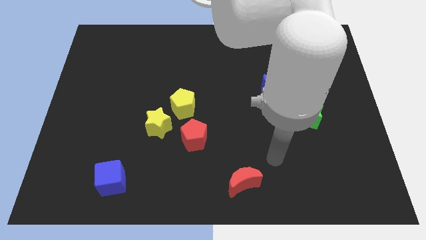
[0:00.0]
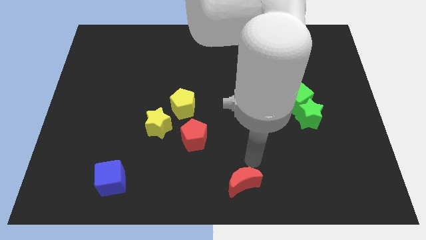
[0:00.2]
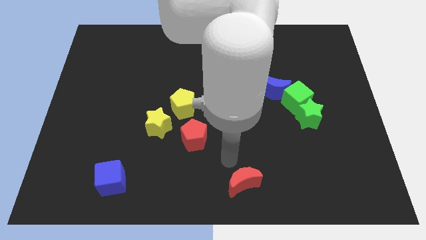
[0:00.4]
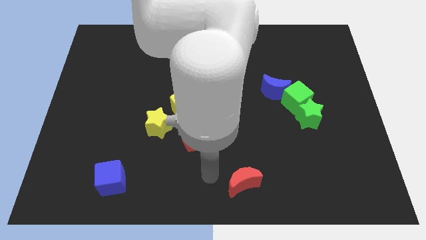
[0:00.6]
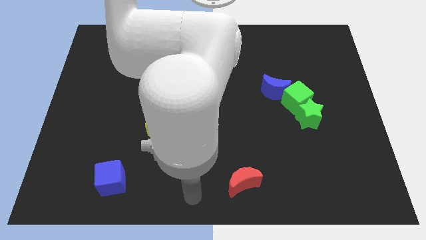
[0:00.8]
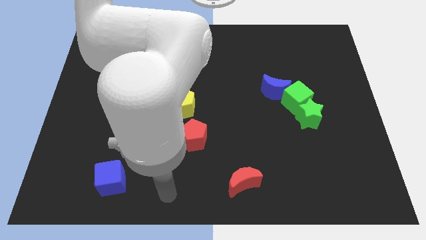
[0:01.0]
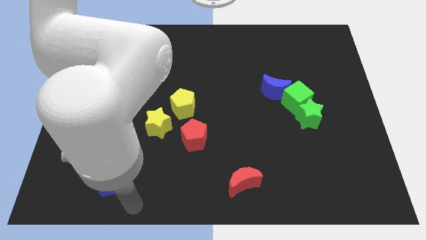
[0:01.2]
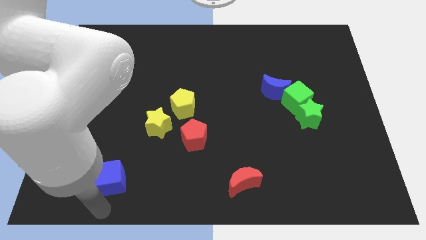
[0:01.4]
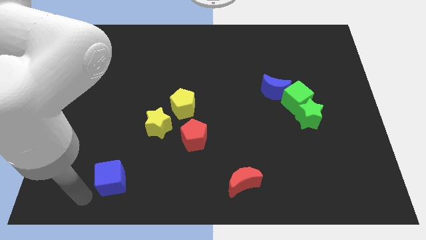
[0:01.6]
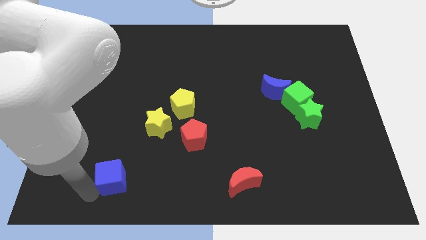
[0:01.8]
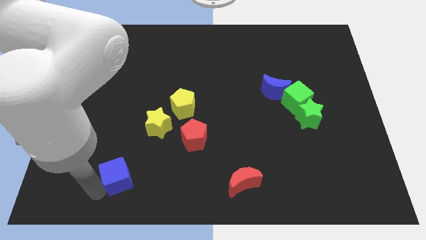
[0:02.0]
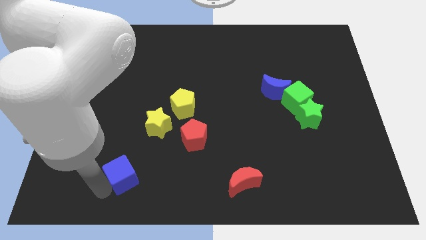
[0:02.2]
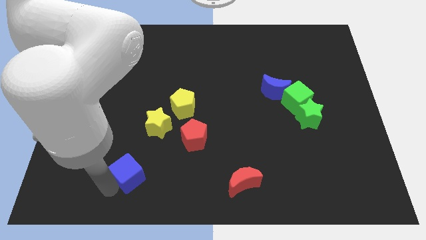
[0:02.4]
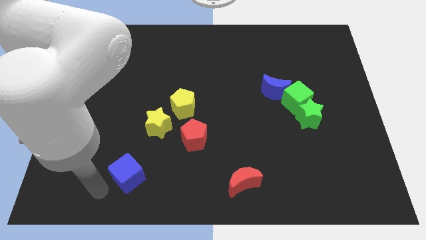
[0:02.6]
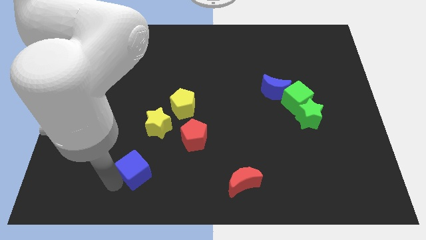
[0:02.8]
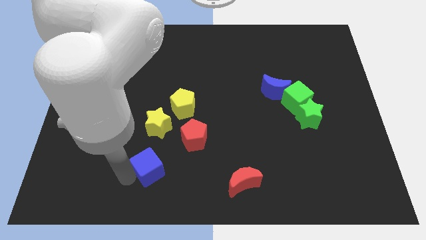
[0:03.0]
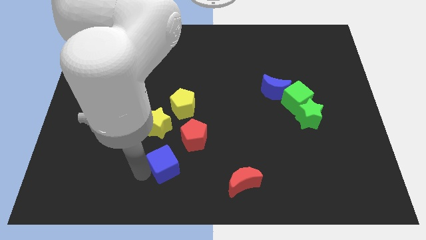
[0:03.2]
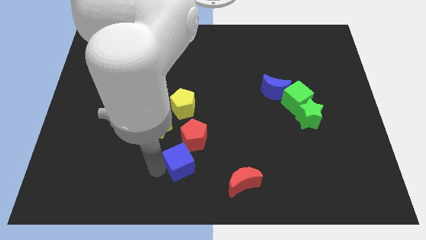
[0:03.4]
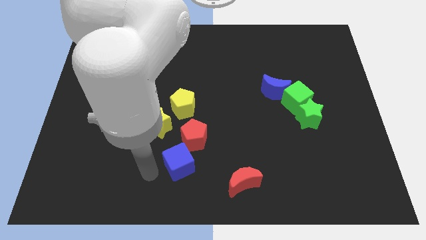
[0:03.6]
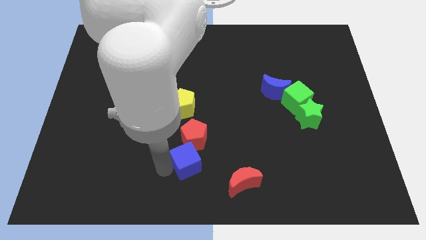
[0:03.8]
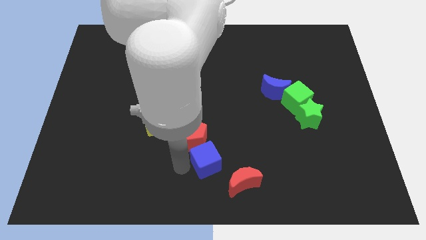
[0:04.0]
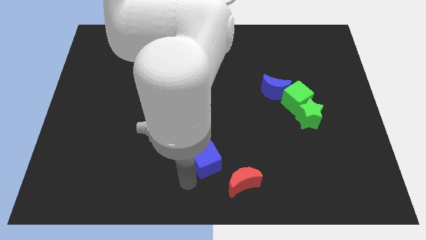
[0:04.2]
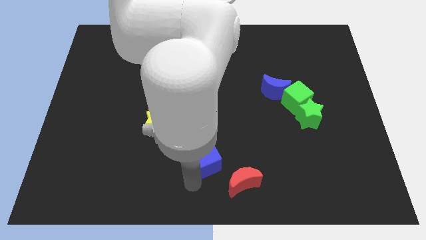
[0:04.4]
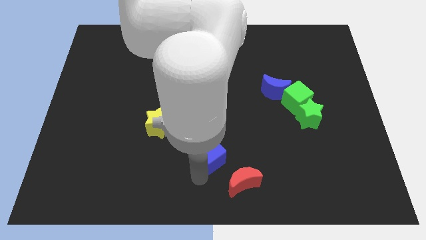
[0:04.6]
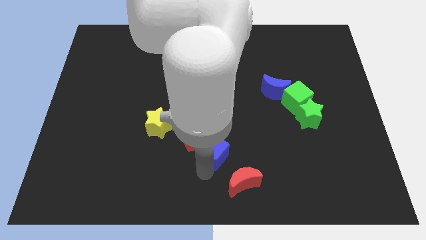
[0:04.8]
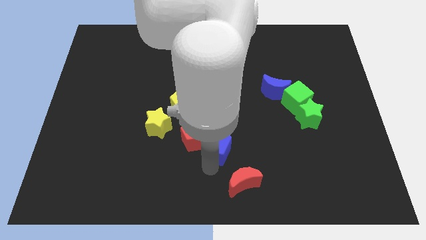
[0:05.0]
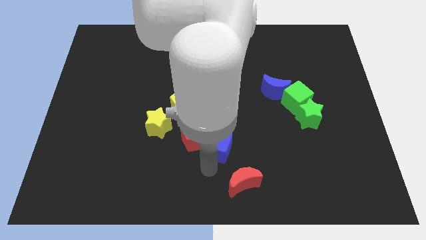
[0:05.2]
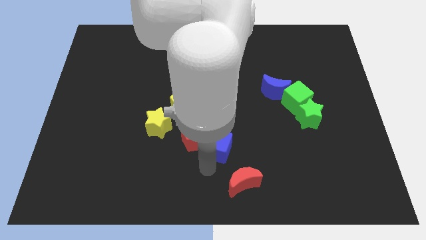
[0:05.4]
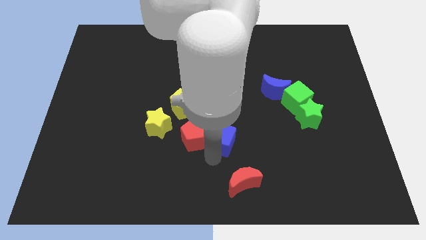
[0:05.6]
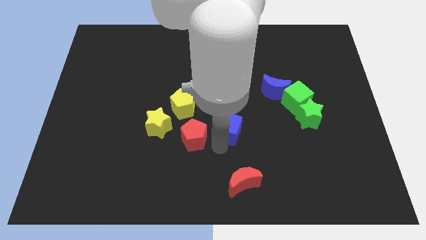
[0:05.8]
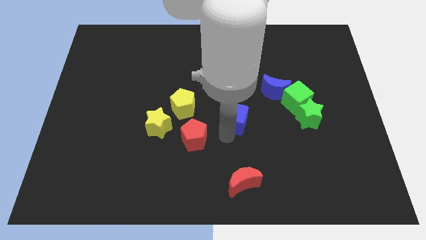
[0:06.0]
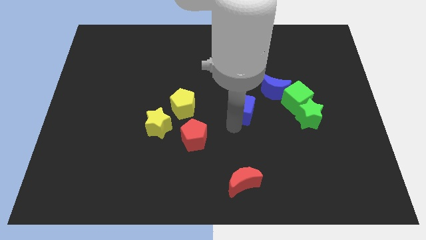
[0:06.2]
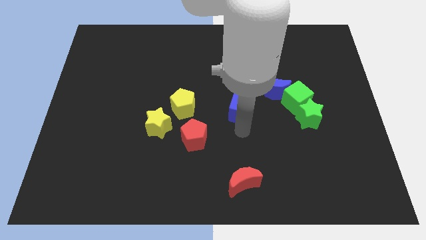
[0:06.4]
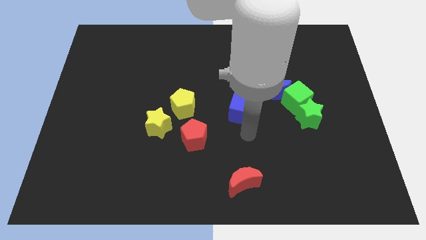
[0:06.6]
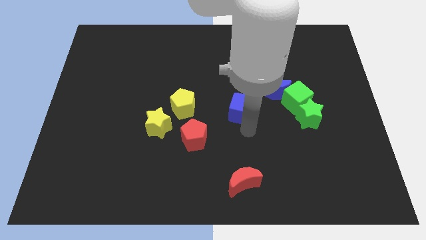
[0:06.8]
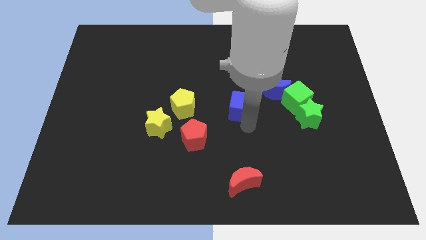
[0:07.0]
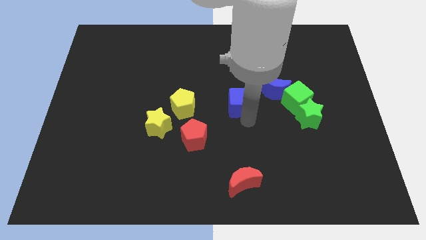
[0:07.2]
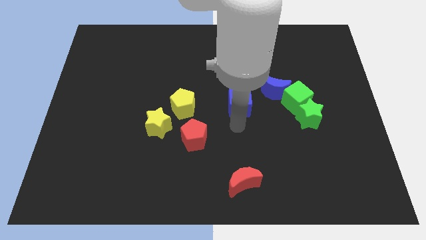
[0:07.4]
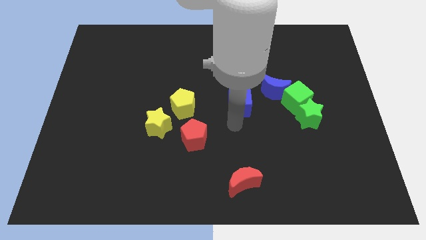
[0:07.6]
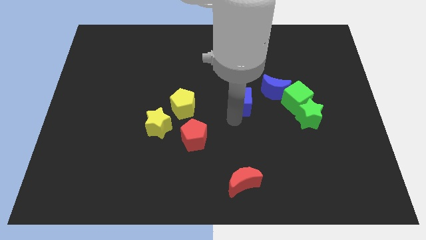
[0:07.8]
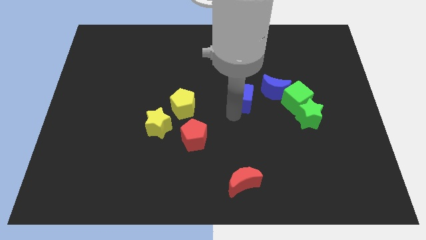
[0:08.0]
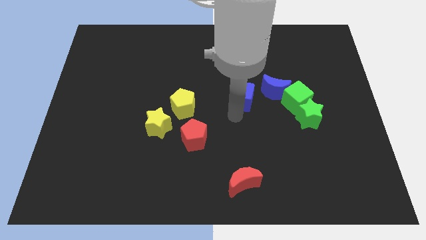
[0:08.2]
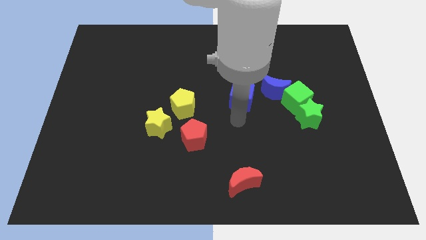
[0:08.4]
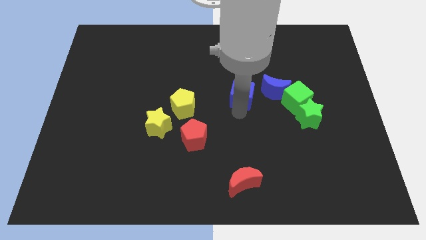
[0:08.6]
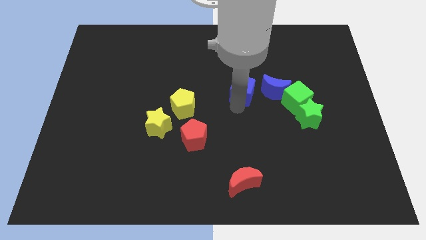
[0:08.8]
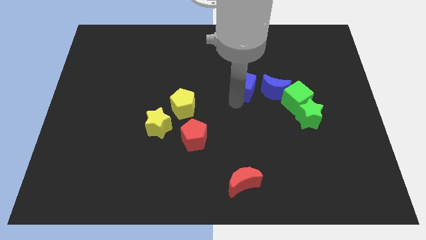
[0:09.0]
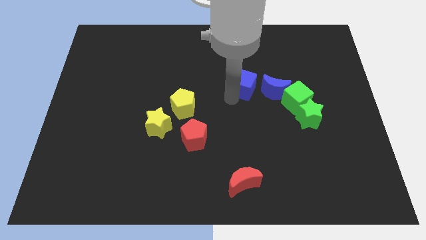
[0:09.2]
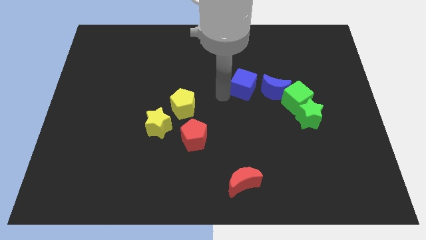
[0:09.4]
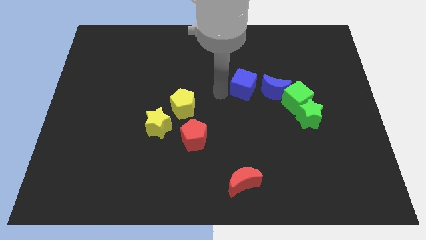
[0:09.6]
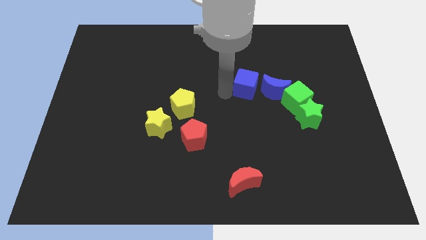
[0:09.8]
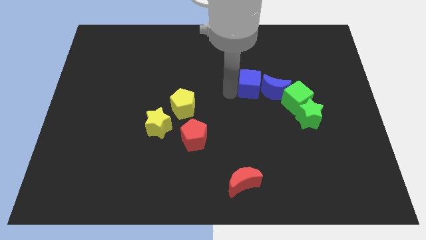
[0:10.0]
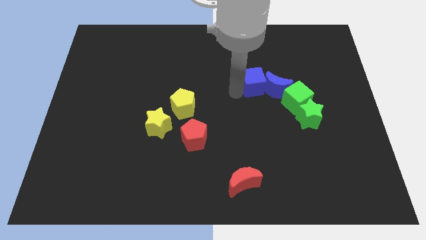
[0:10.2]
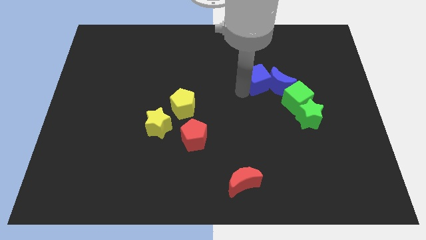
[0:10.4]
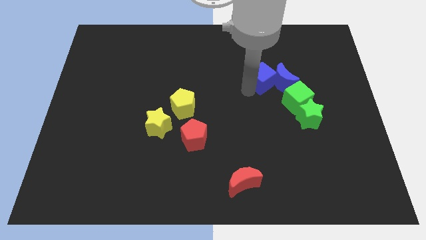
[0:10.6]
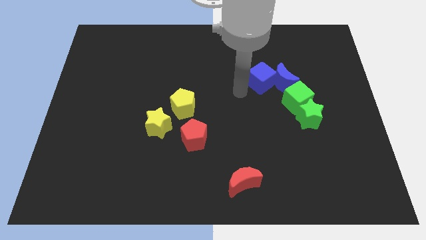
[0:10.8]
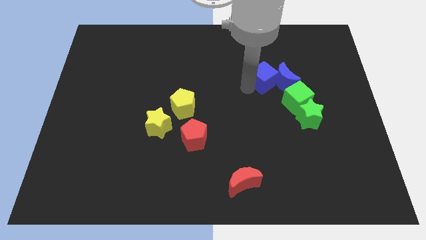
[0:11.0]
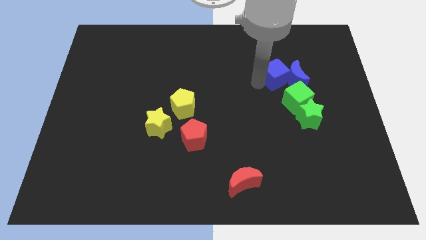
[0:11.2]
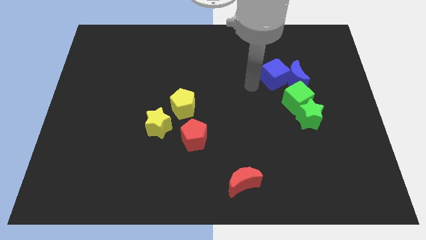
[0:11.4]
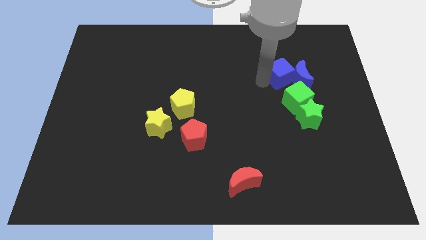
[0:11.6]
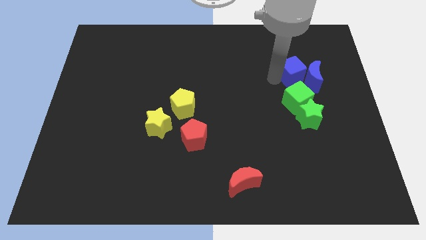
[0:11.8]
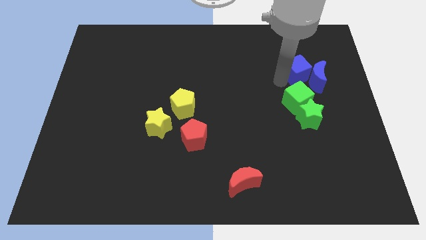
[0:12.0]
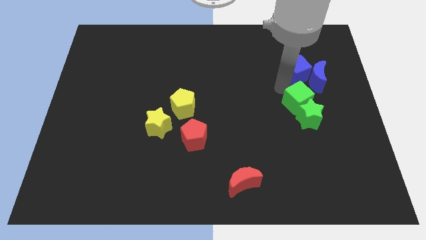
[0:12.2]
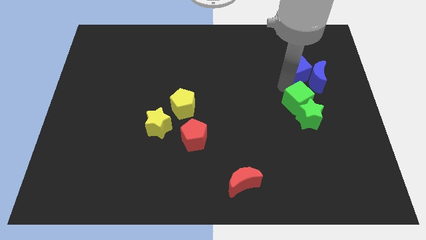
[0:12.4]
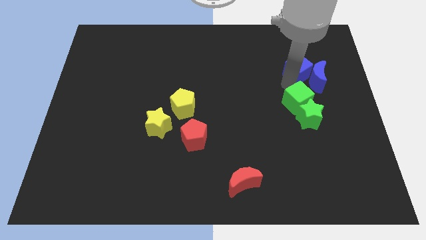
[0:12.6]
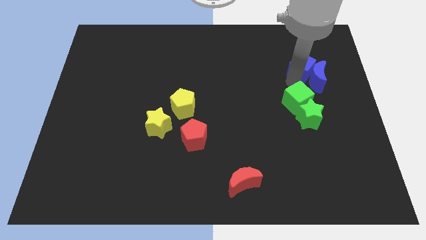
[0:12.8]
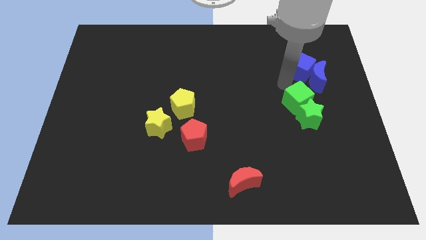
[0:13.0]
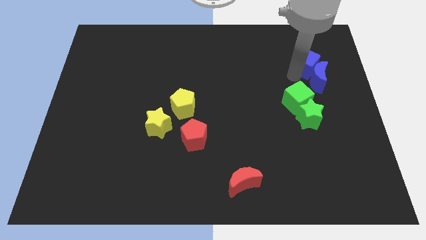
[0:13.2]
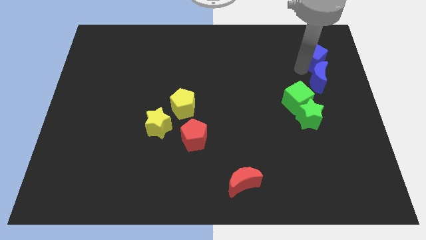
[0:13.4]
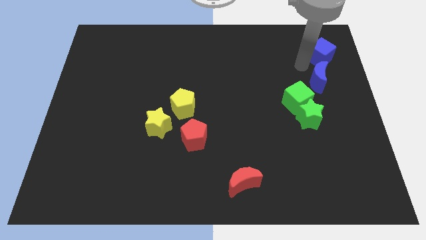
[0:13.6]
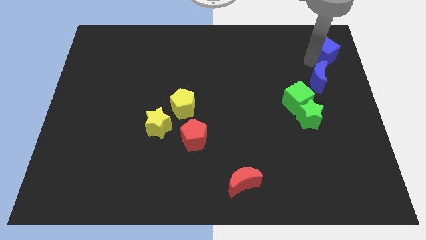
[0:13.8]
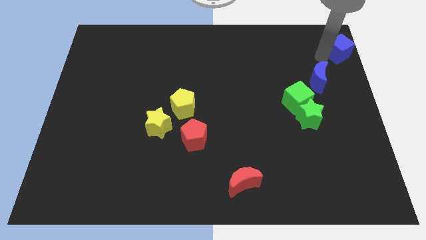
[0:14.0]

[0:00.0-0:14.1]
push the blue cube to the top right of the board
